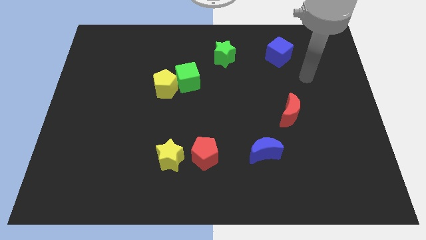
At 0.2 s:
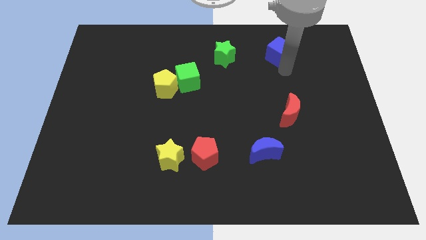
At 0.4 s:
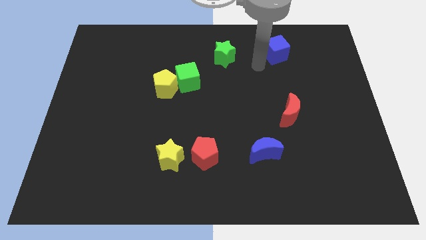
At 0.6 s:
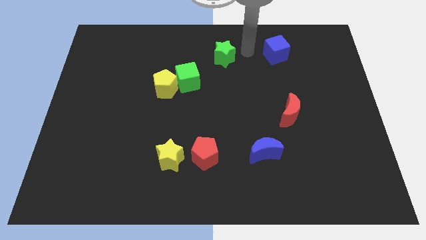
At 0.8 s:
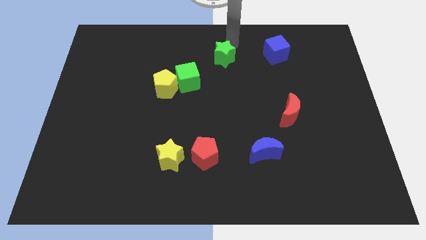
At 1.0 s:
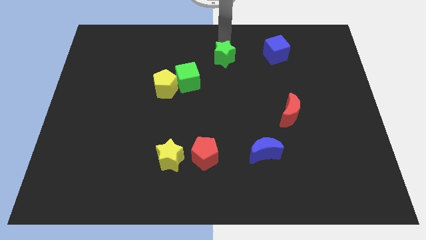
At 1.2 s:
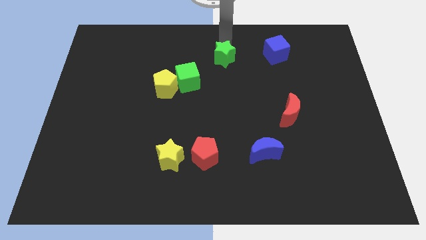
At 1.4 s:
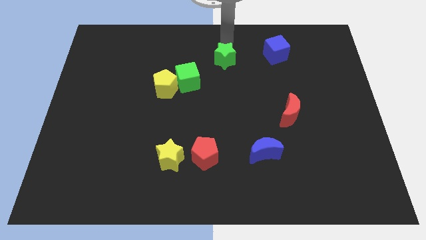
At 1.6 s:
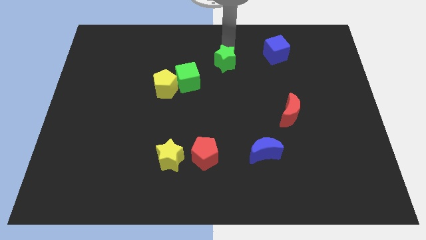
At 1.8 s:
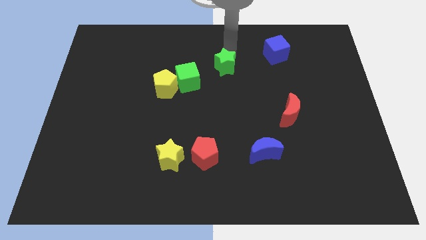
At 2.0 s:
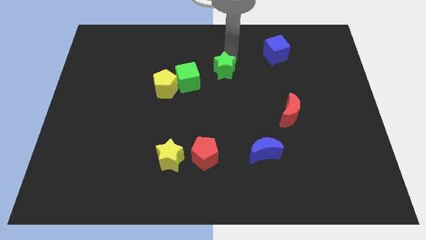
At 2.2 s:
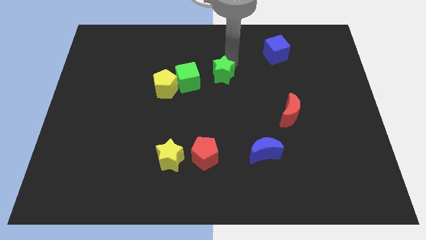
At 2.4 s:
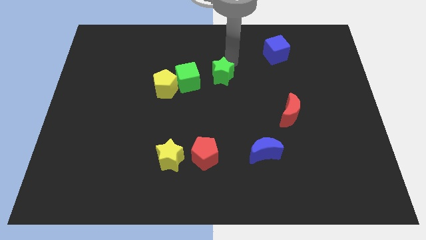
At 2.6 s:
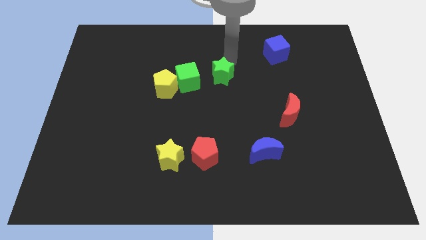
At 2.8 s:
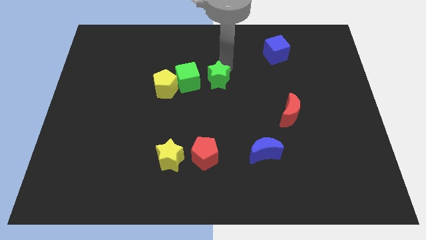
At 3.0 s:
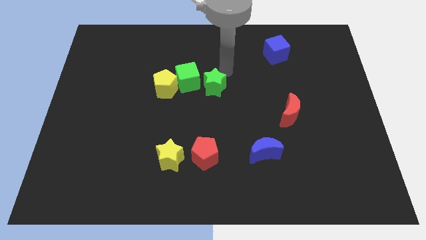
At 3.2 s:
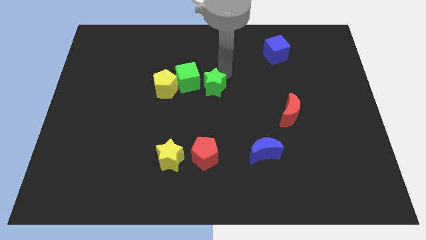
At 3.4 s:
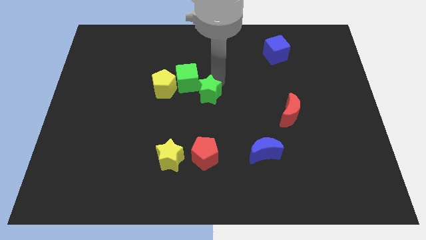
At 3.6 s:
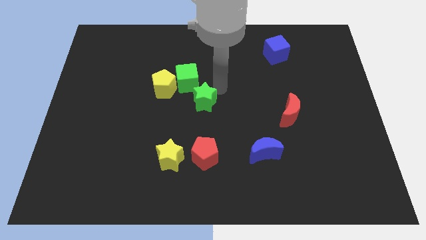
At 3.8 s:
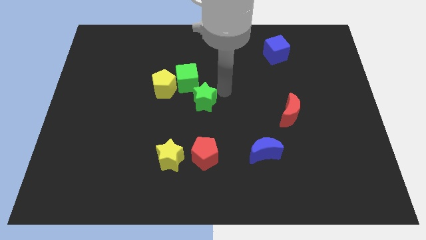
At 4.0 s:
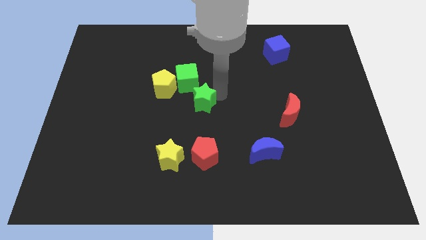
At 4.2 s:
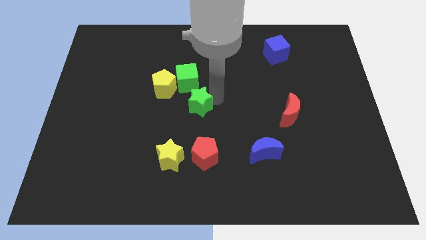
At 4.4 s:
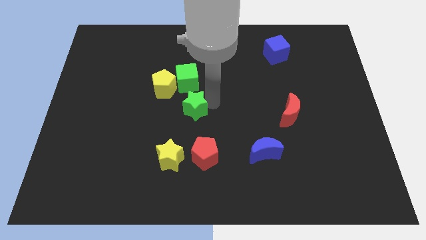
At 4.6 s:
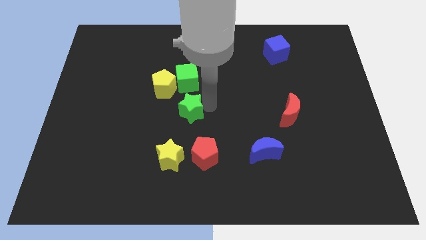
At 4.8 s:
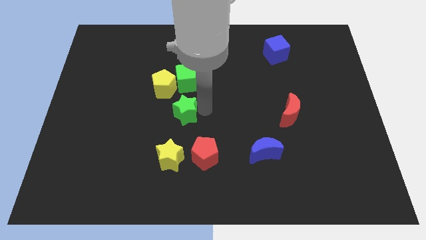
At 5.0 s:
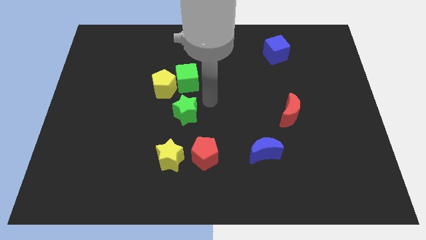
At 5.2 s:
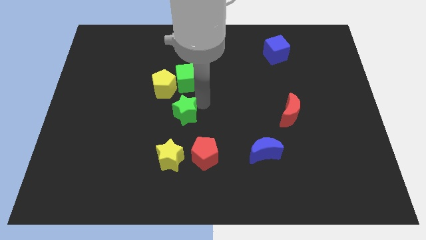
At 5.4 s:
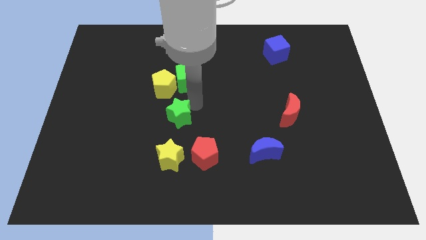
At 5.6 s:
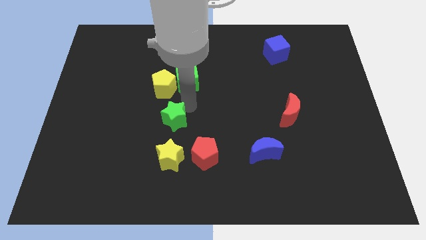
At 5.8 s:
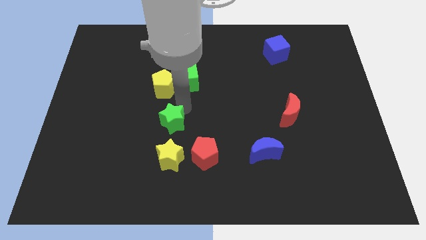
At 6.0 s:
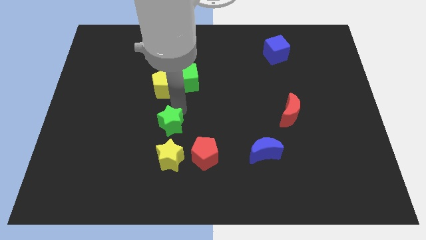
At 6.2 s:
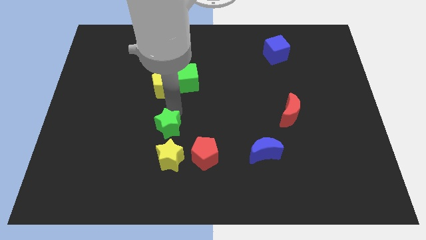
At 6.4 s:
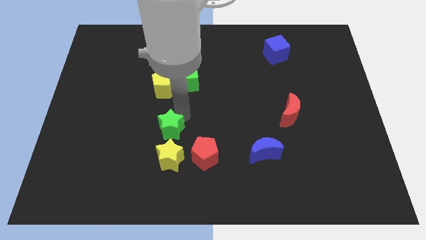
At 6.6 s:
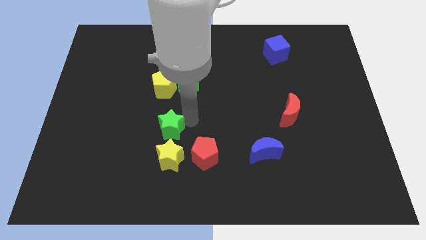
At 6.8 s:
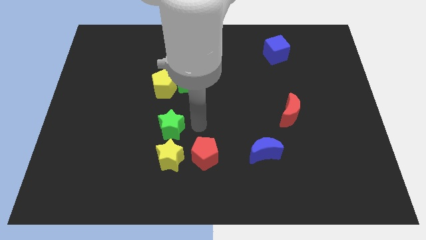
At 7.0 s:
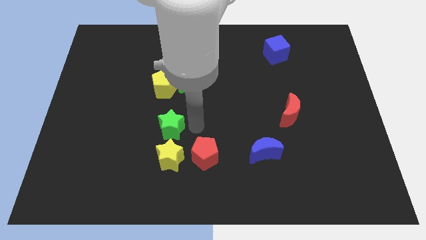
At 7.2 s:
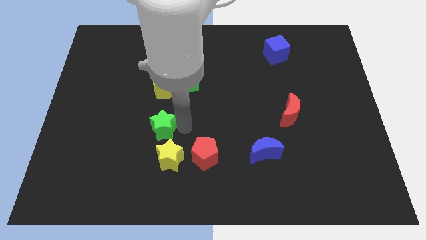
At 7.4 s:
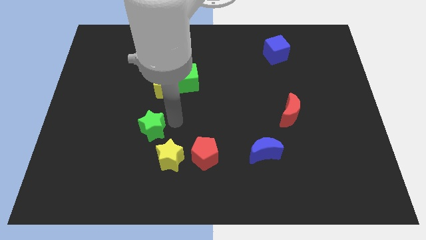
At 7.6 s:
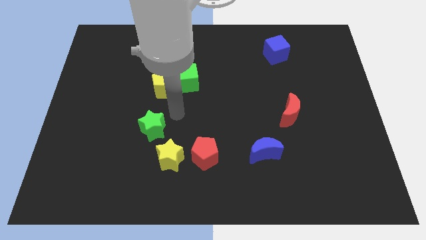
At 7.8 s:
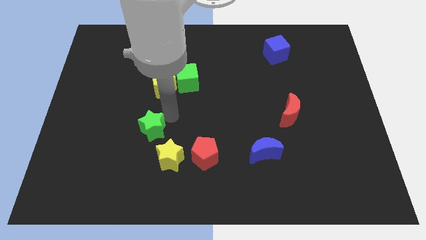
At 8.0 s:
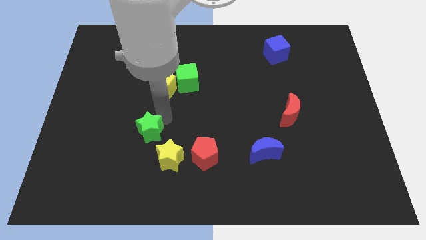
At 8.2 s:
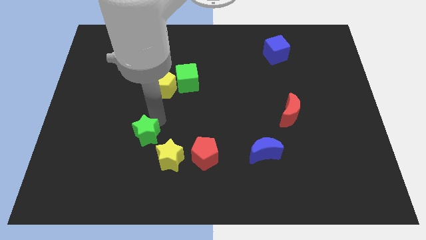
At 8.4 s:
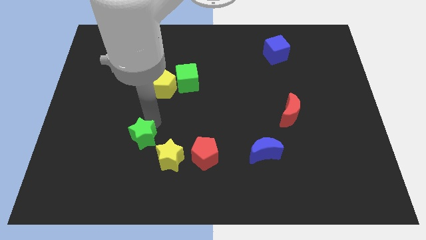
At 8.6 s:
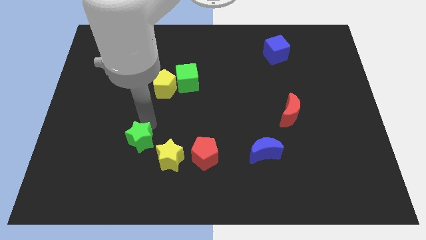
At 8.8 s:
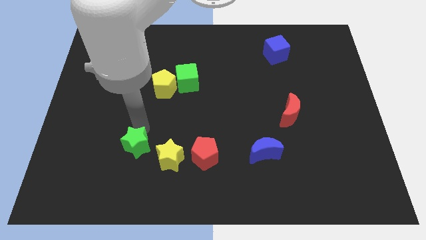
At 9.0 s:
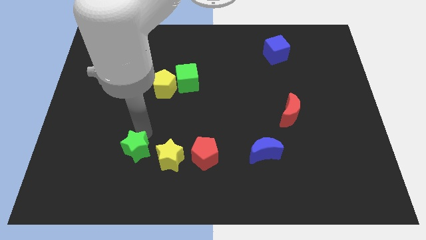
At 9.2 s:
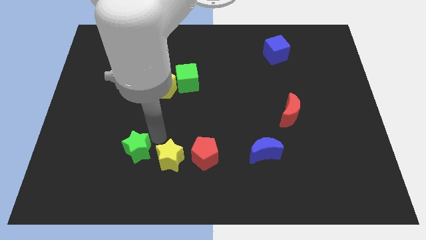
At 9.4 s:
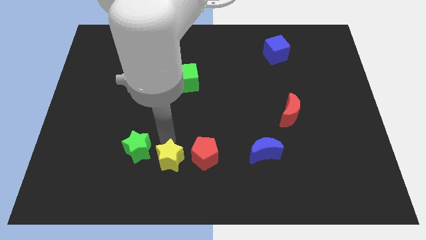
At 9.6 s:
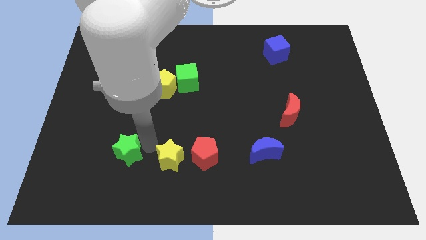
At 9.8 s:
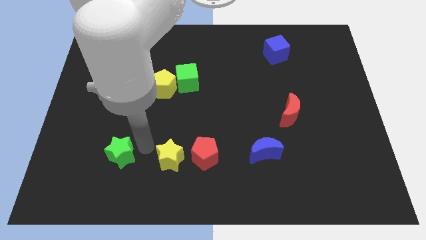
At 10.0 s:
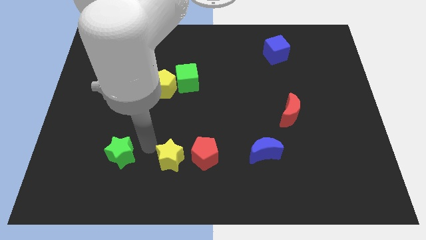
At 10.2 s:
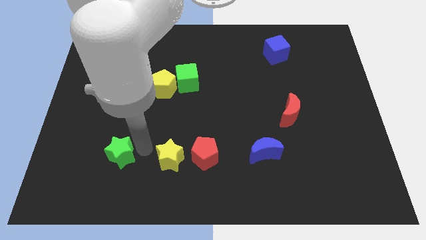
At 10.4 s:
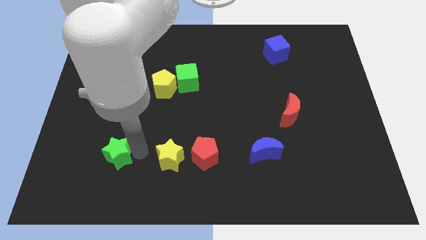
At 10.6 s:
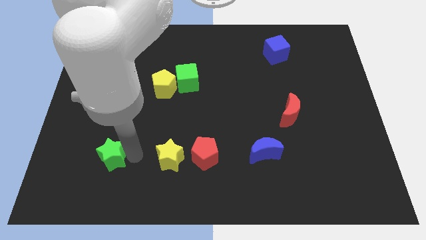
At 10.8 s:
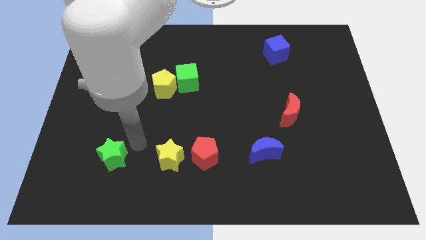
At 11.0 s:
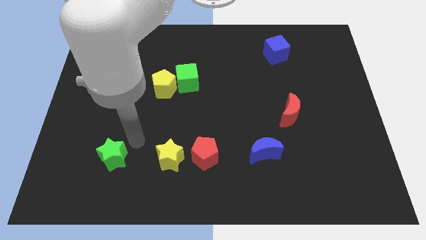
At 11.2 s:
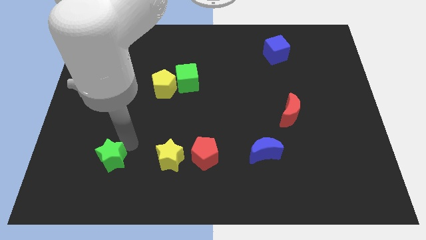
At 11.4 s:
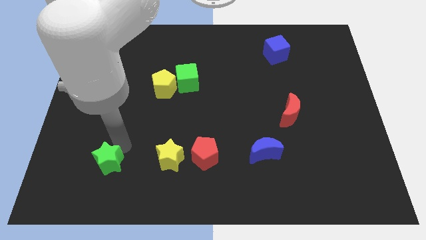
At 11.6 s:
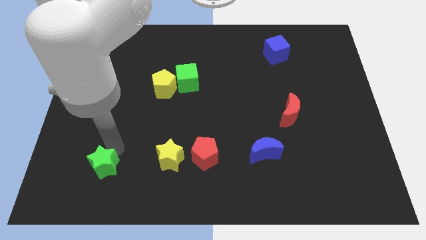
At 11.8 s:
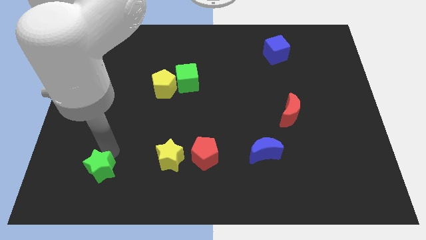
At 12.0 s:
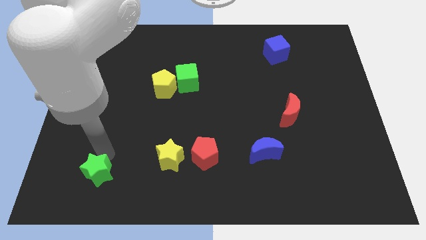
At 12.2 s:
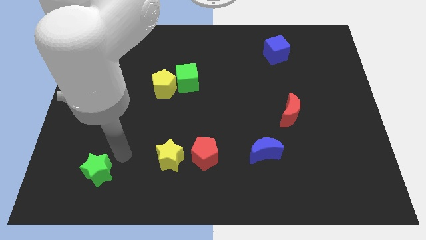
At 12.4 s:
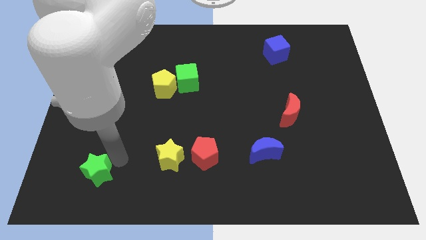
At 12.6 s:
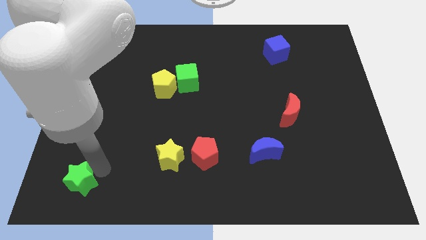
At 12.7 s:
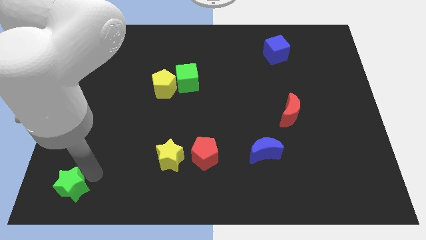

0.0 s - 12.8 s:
move the green star to the bottom left
